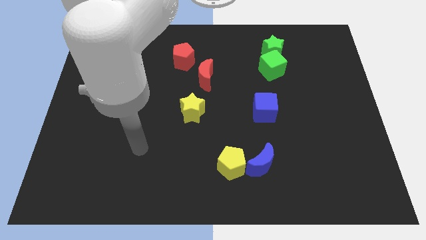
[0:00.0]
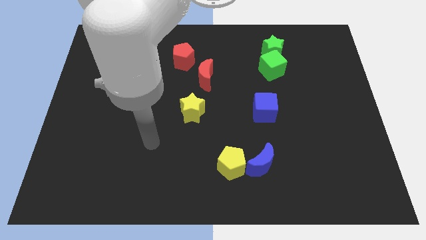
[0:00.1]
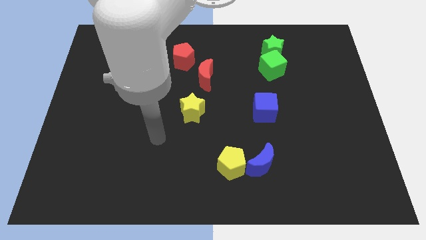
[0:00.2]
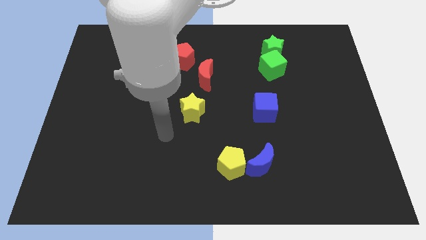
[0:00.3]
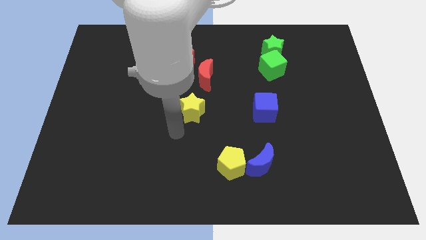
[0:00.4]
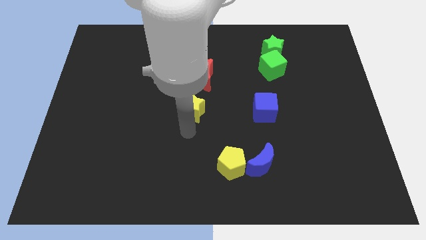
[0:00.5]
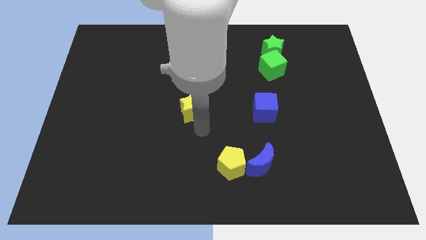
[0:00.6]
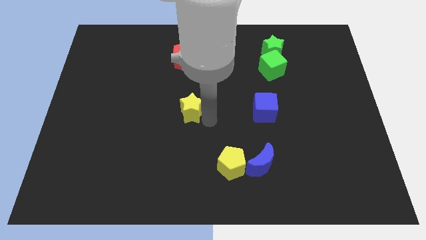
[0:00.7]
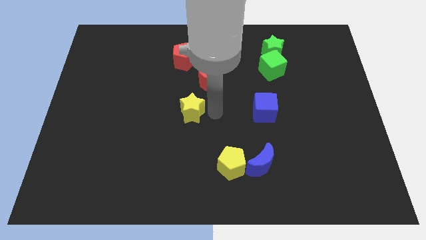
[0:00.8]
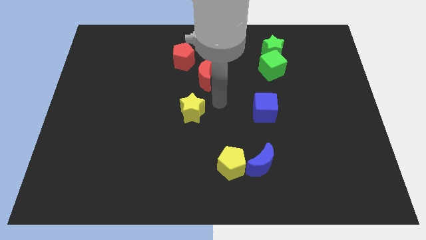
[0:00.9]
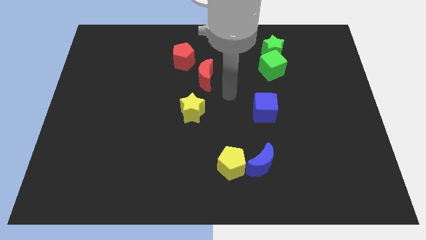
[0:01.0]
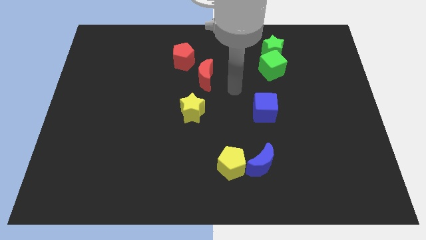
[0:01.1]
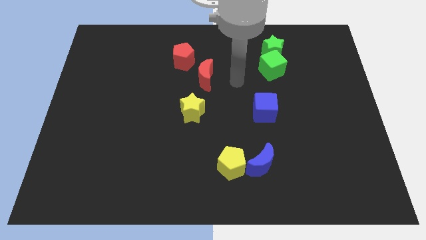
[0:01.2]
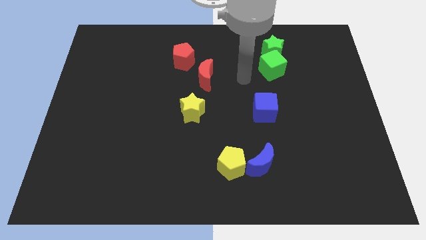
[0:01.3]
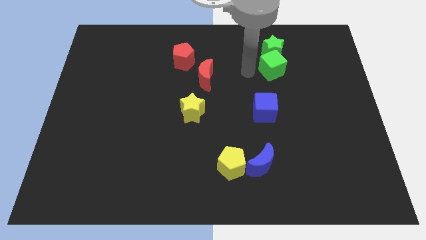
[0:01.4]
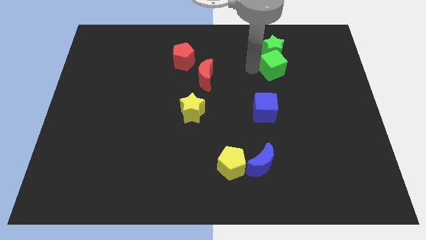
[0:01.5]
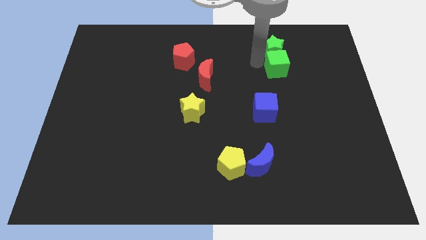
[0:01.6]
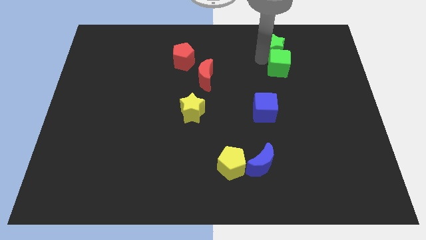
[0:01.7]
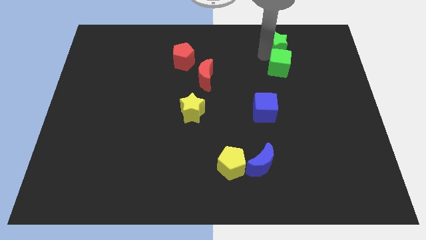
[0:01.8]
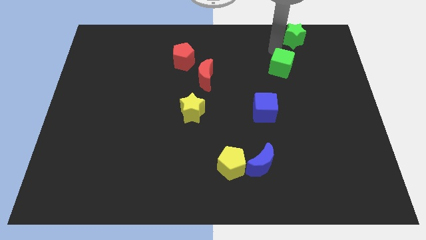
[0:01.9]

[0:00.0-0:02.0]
move the green cube away from the green star

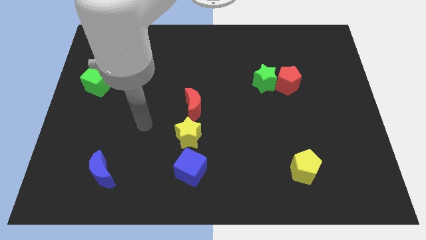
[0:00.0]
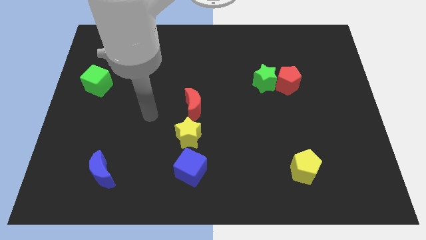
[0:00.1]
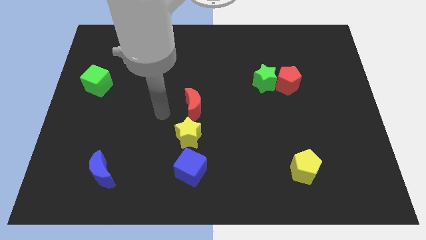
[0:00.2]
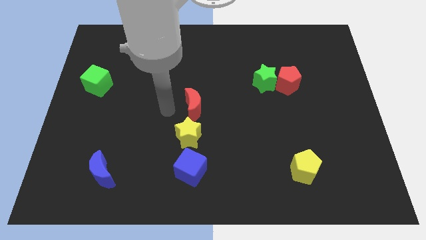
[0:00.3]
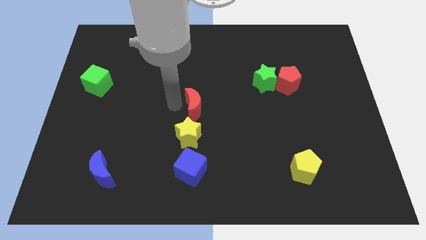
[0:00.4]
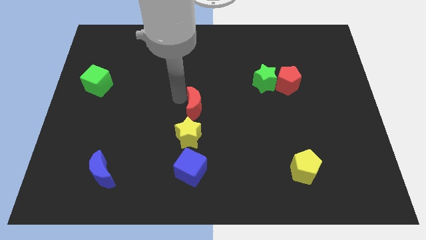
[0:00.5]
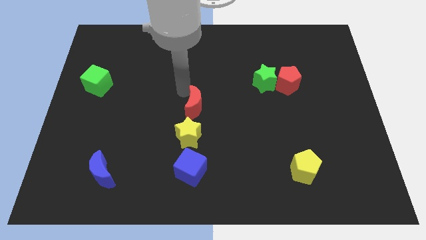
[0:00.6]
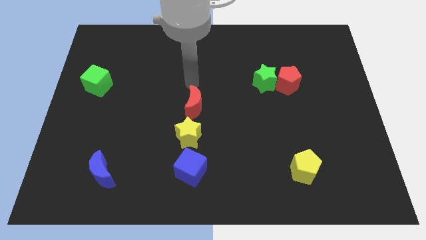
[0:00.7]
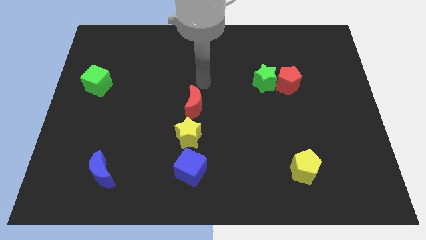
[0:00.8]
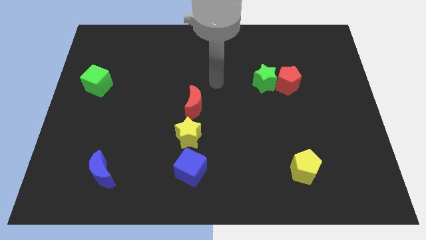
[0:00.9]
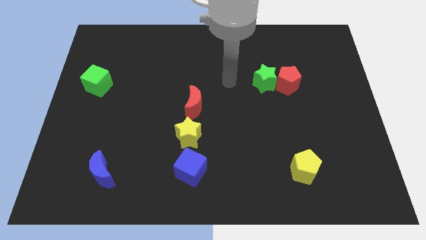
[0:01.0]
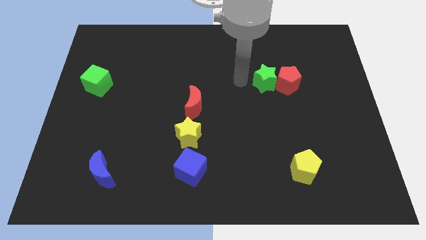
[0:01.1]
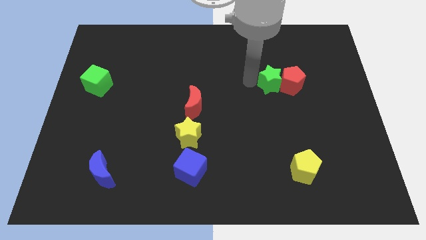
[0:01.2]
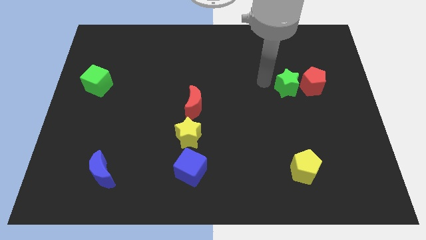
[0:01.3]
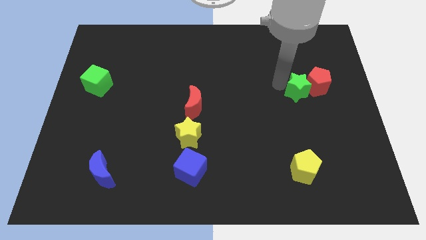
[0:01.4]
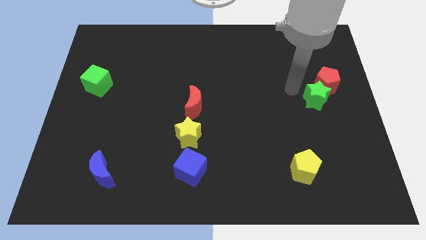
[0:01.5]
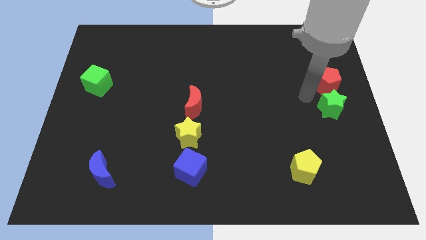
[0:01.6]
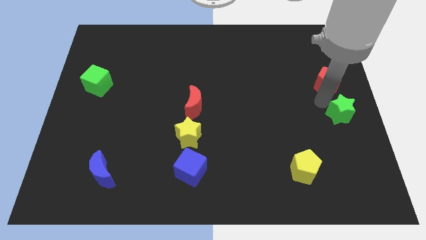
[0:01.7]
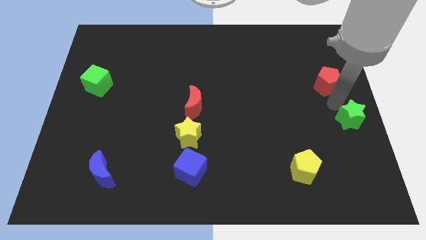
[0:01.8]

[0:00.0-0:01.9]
move the red pentagon away from the green star

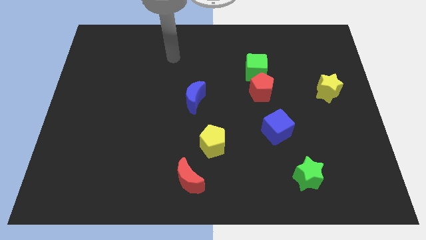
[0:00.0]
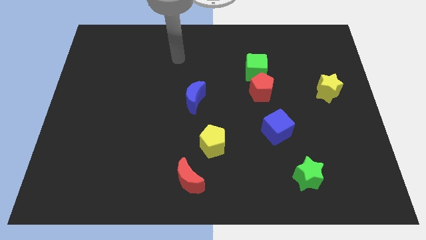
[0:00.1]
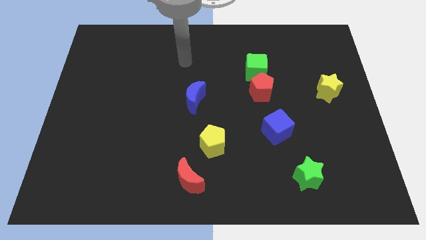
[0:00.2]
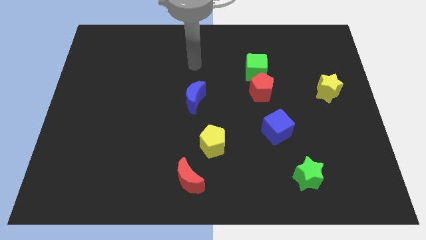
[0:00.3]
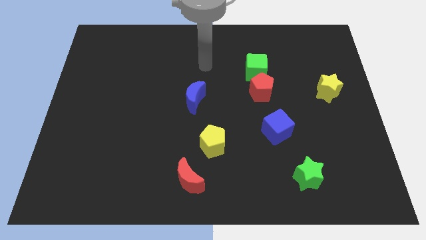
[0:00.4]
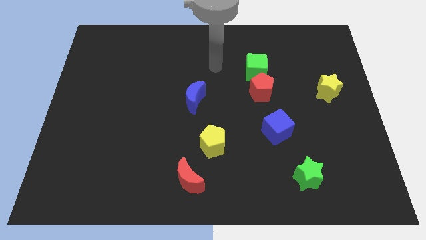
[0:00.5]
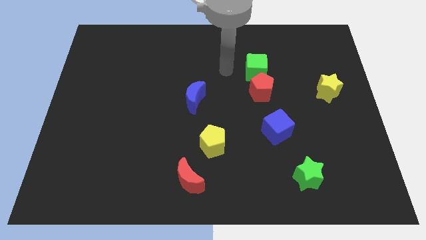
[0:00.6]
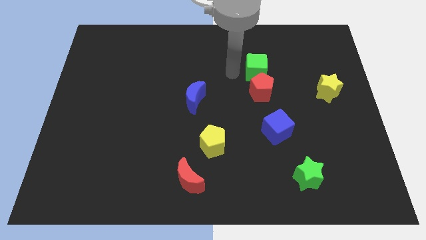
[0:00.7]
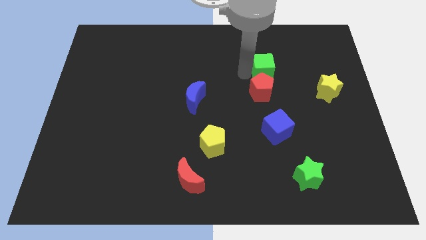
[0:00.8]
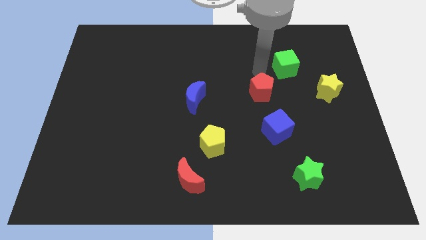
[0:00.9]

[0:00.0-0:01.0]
move the red pentagon away from the green cube

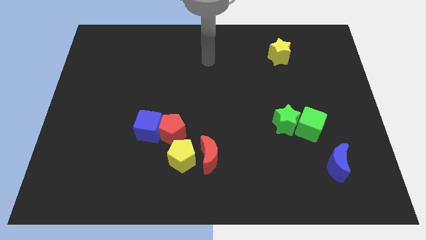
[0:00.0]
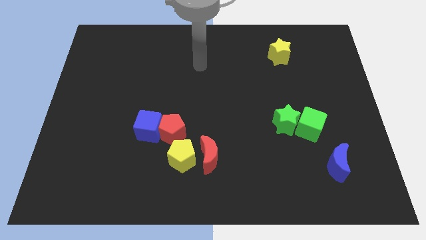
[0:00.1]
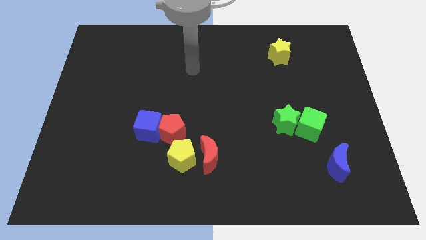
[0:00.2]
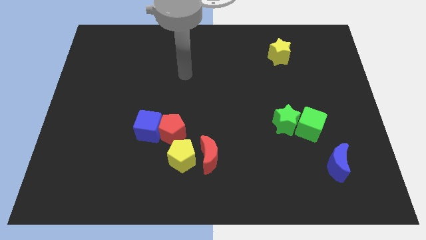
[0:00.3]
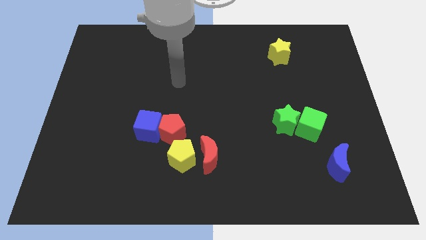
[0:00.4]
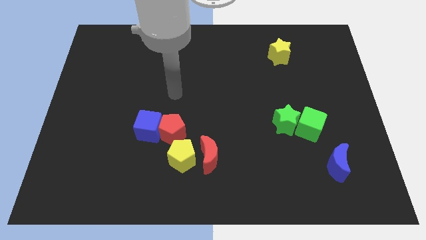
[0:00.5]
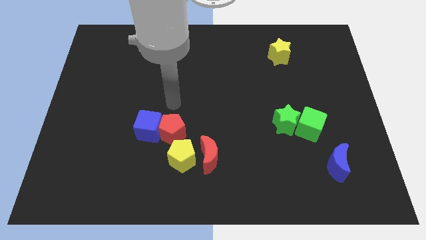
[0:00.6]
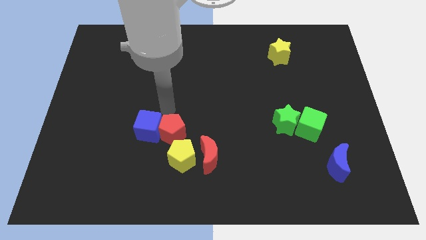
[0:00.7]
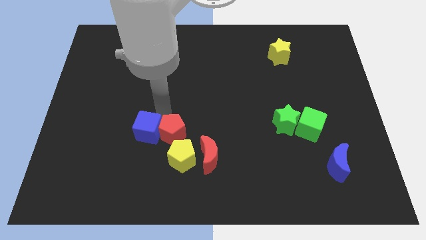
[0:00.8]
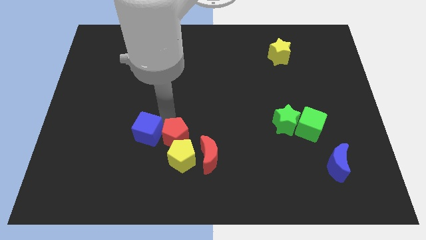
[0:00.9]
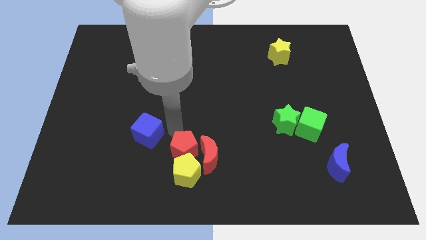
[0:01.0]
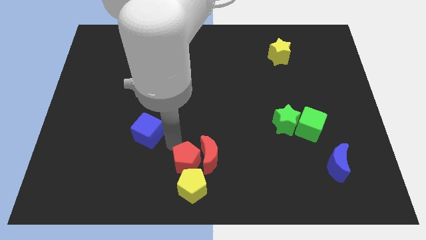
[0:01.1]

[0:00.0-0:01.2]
separate the blue cube from the red pentagon

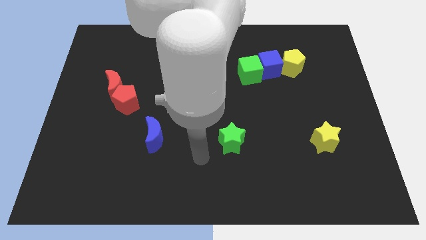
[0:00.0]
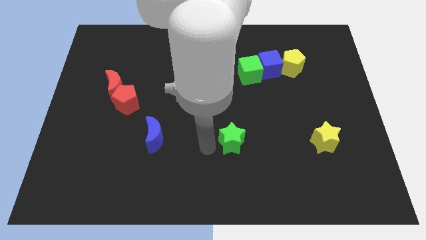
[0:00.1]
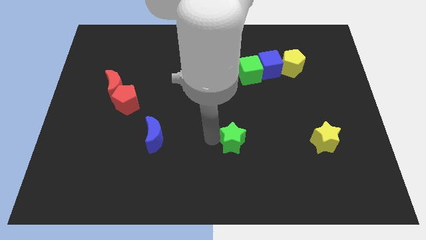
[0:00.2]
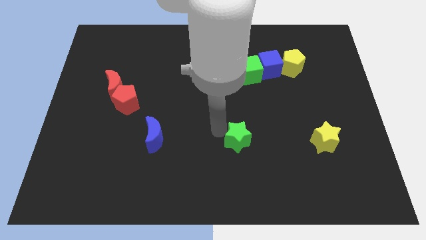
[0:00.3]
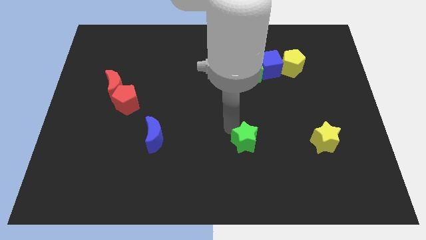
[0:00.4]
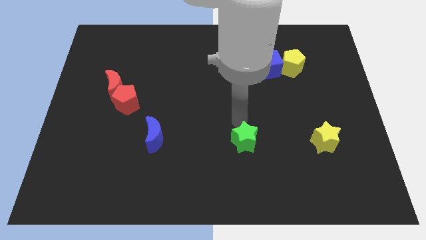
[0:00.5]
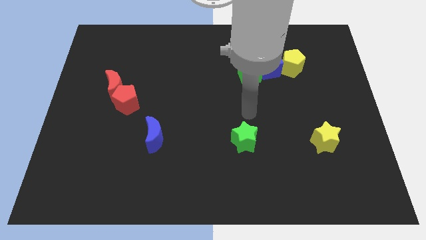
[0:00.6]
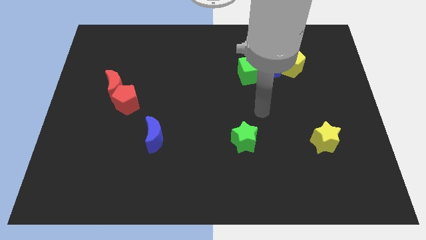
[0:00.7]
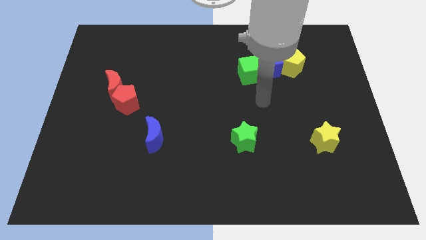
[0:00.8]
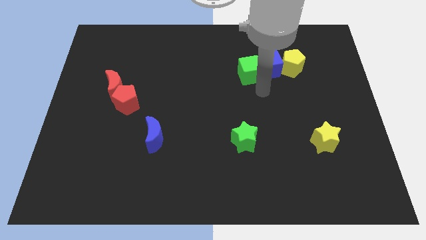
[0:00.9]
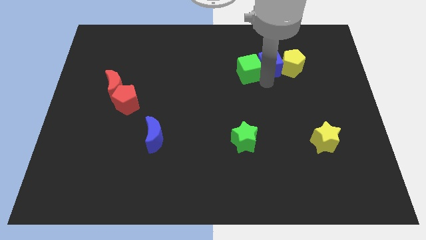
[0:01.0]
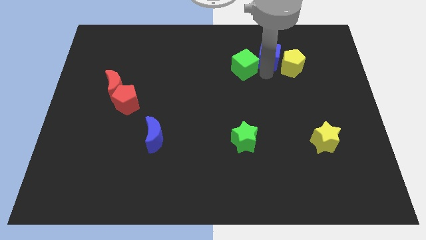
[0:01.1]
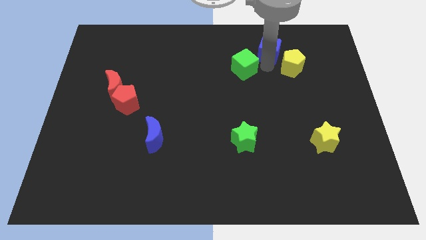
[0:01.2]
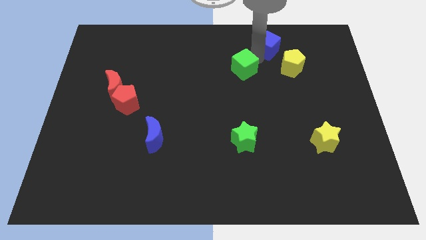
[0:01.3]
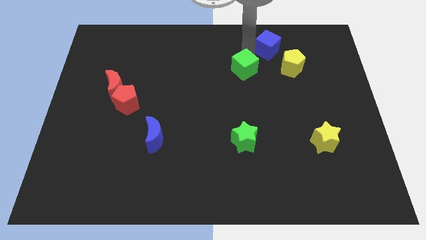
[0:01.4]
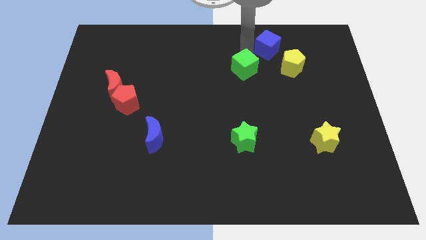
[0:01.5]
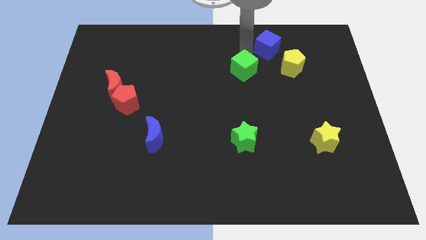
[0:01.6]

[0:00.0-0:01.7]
move the green cube away from the blue cube

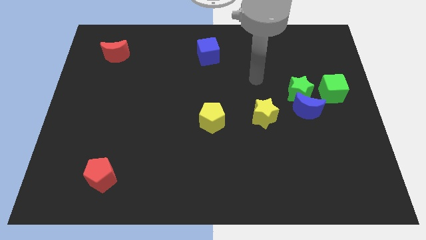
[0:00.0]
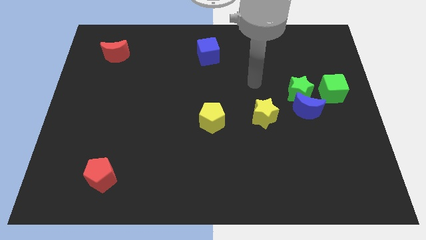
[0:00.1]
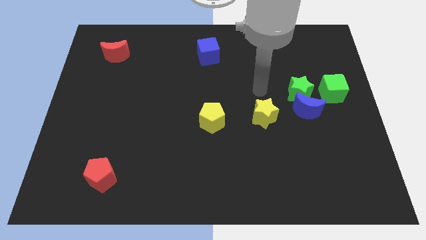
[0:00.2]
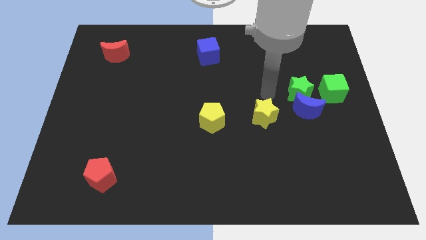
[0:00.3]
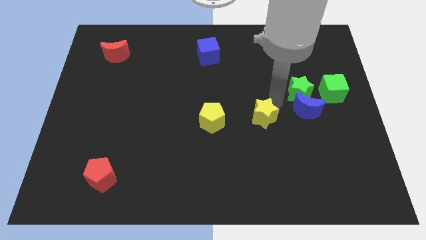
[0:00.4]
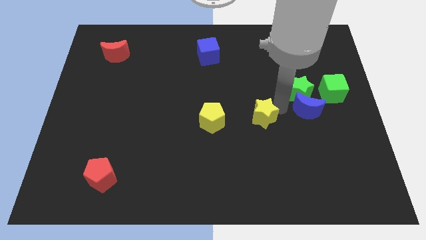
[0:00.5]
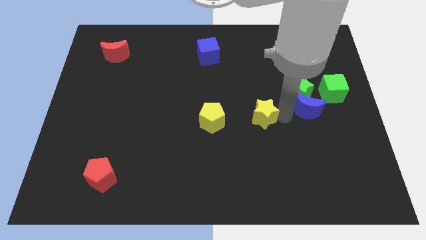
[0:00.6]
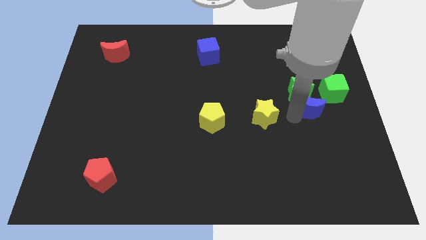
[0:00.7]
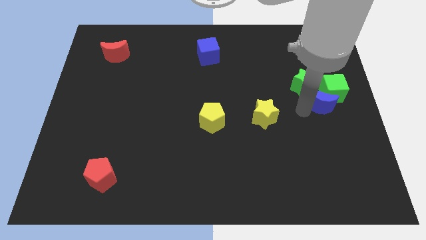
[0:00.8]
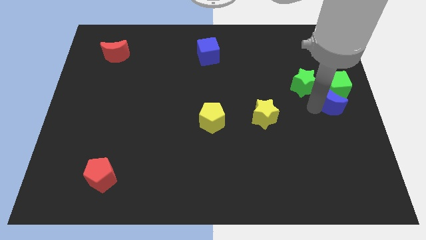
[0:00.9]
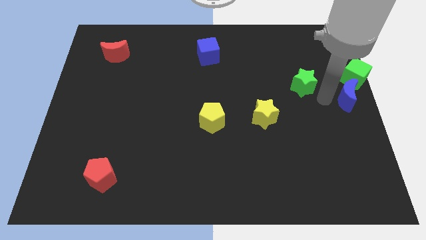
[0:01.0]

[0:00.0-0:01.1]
separate the green star from the blue moon and green cube

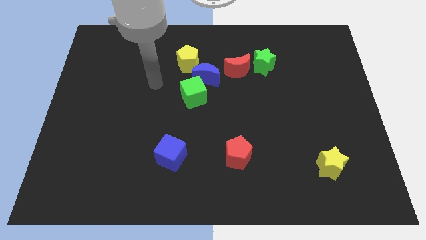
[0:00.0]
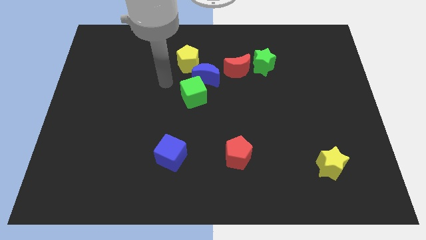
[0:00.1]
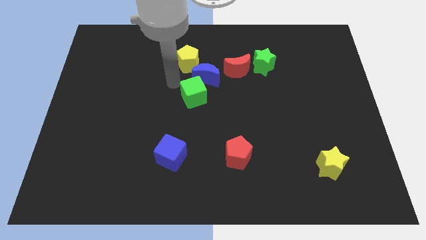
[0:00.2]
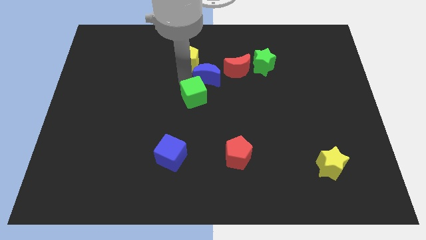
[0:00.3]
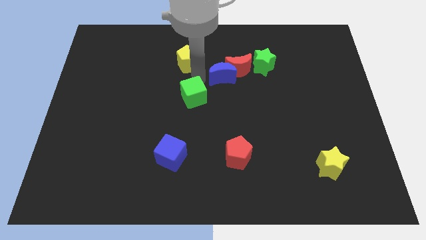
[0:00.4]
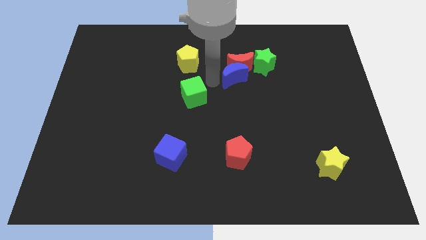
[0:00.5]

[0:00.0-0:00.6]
separate the green cube from the blue moon
